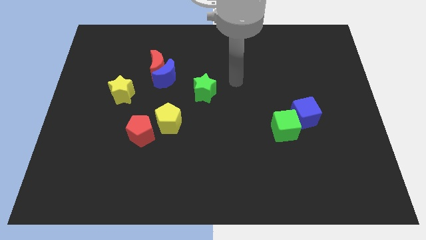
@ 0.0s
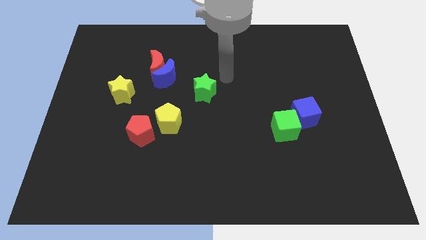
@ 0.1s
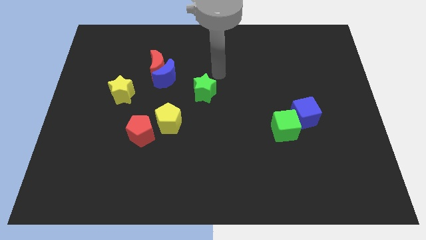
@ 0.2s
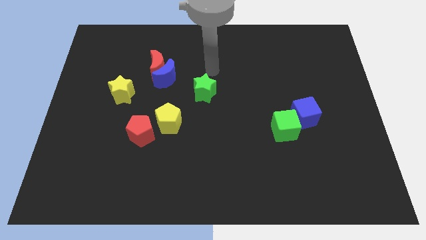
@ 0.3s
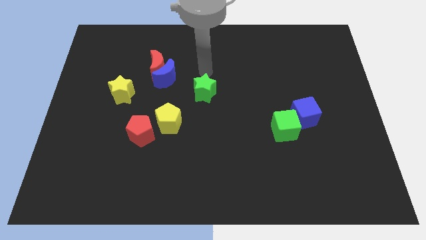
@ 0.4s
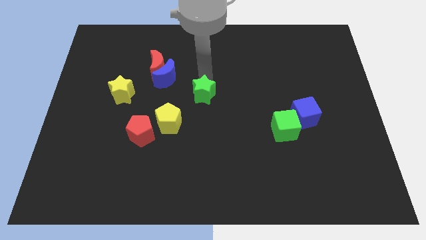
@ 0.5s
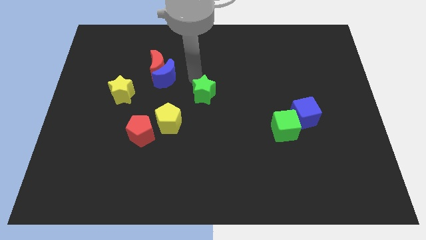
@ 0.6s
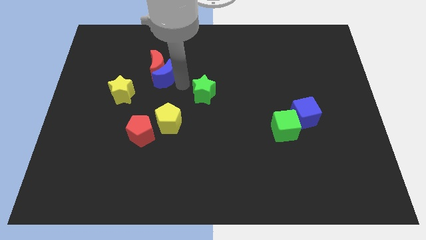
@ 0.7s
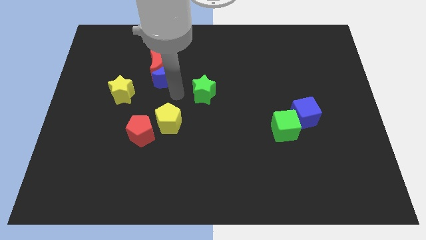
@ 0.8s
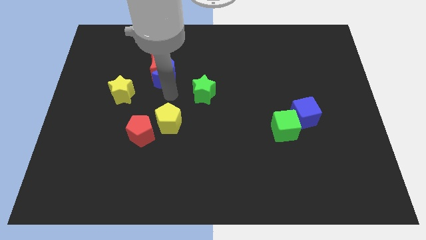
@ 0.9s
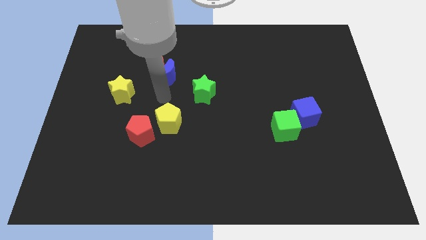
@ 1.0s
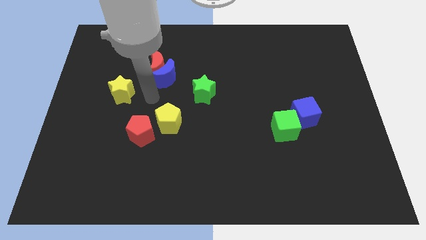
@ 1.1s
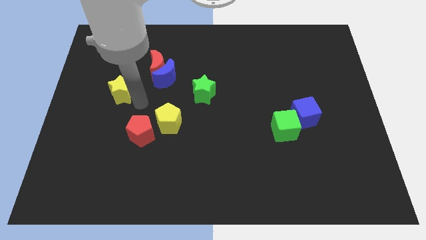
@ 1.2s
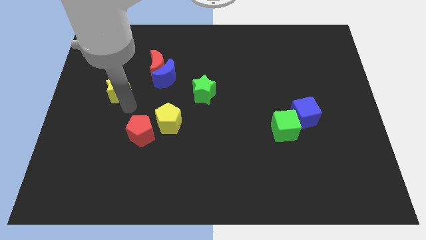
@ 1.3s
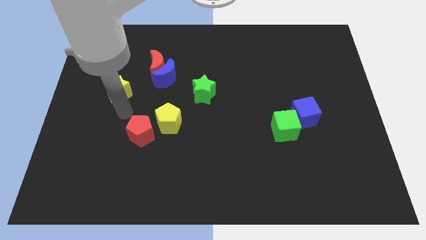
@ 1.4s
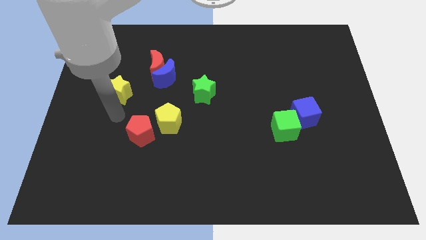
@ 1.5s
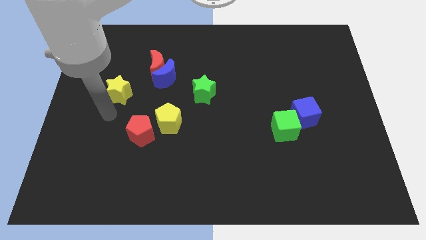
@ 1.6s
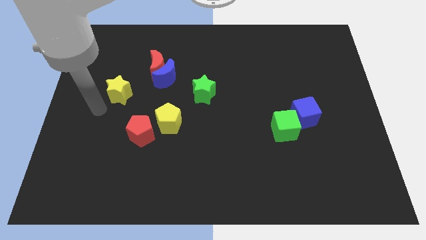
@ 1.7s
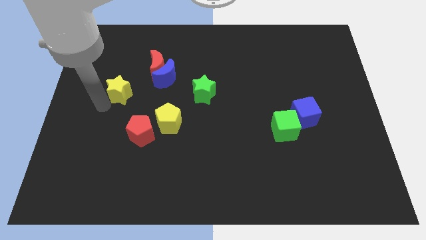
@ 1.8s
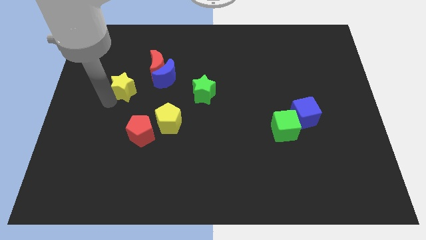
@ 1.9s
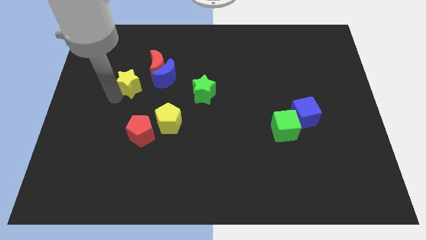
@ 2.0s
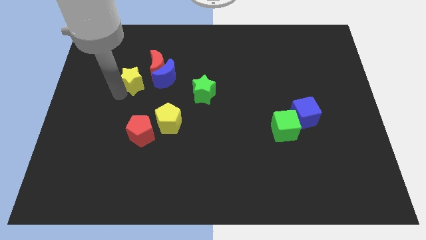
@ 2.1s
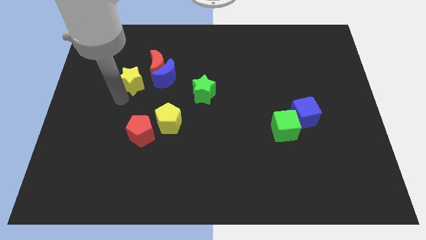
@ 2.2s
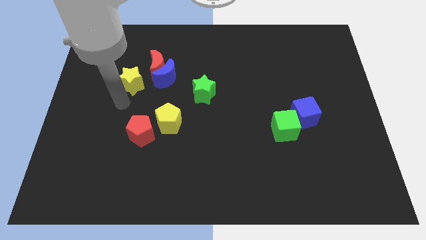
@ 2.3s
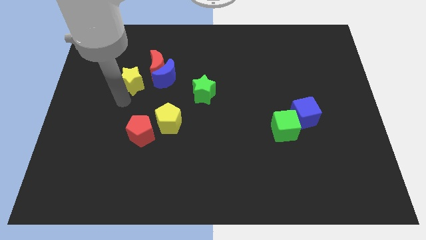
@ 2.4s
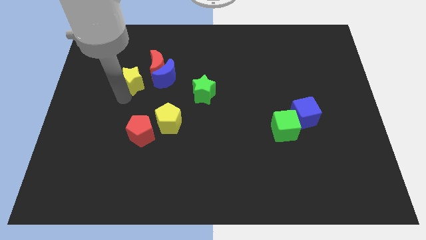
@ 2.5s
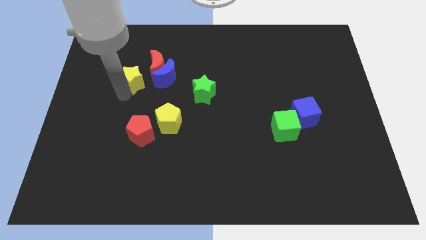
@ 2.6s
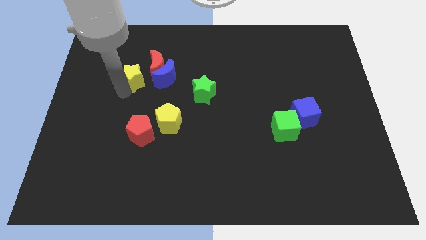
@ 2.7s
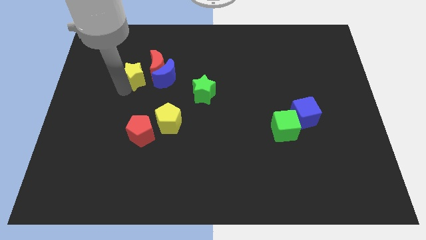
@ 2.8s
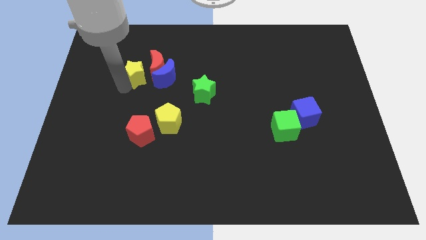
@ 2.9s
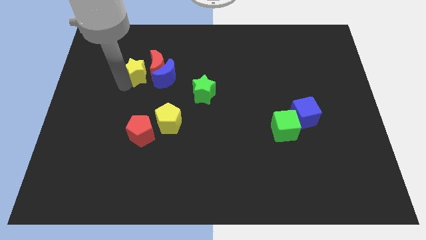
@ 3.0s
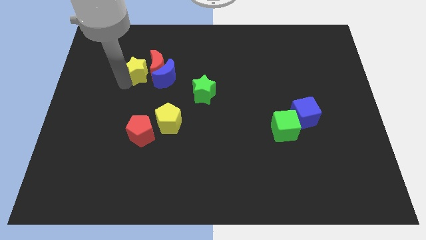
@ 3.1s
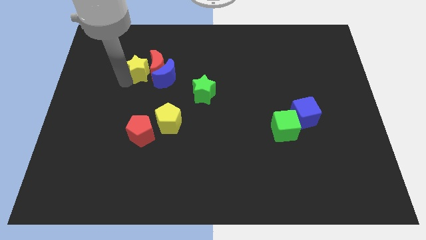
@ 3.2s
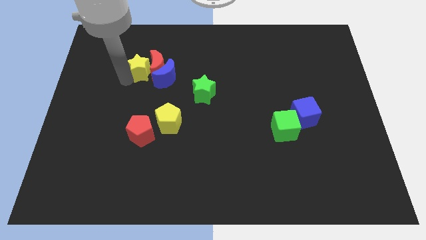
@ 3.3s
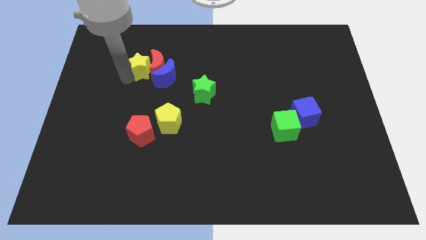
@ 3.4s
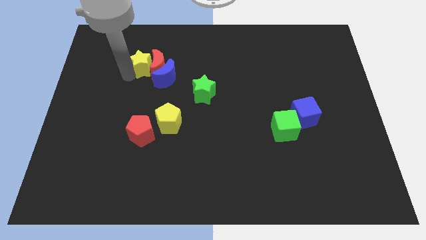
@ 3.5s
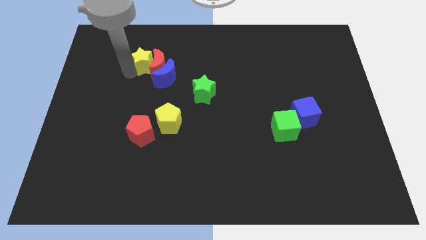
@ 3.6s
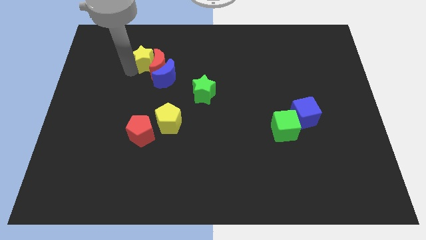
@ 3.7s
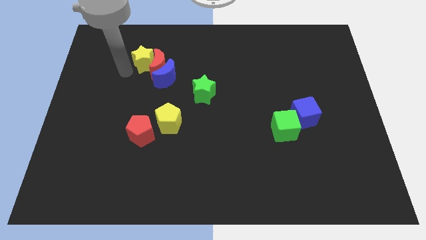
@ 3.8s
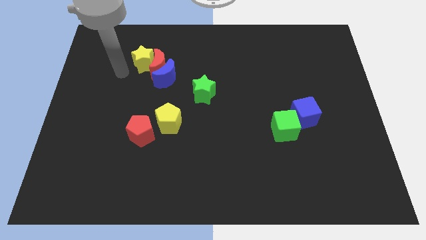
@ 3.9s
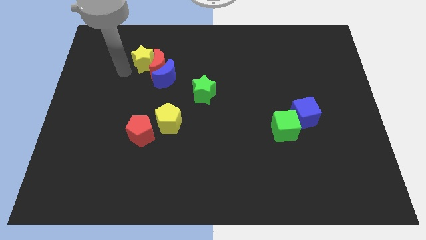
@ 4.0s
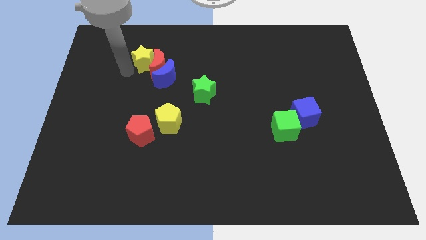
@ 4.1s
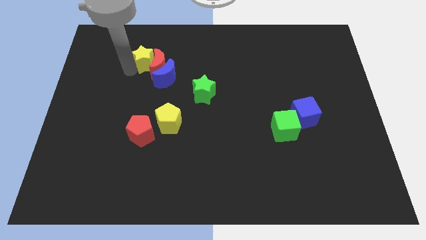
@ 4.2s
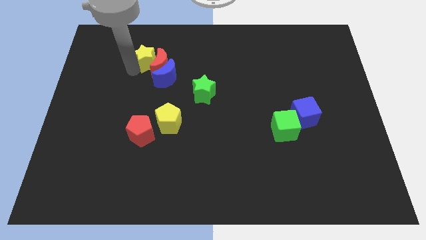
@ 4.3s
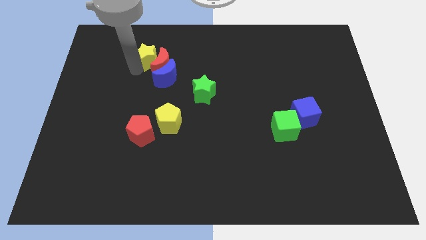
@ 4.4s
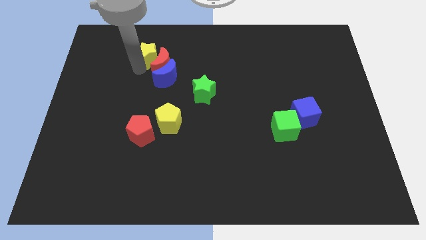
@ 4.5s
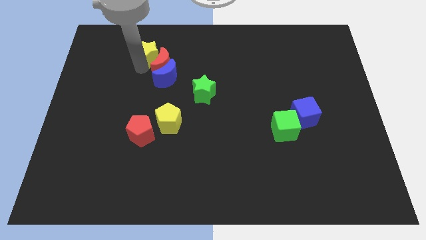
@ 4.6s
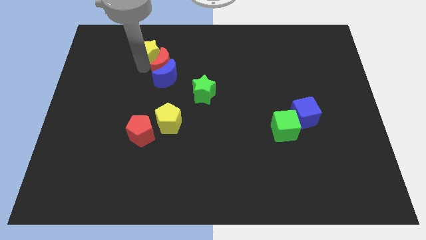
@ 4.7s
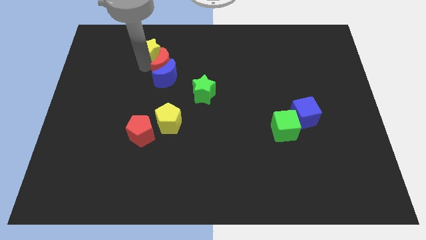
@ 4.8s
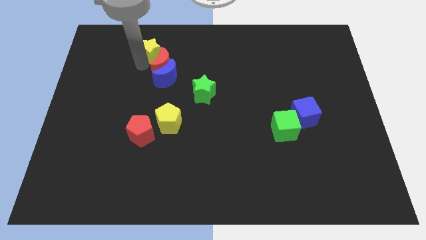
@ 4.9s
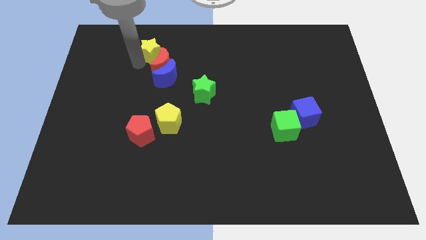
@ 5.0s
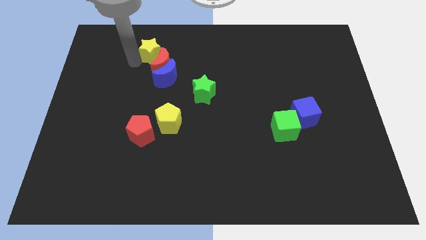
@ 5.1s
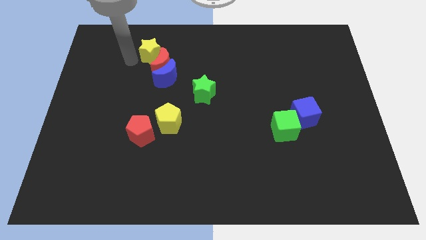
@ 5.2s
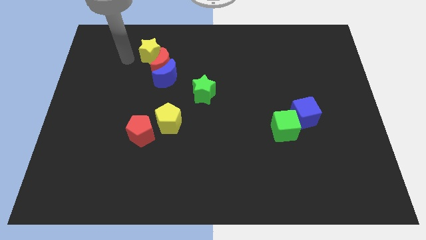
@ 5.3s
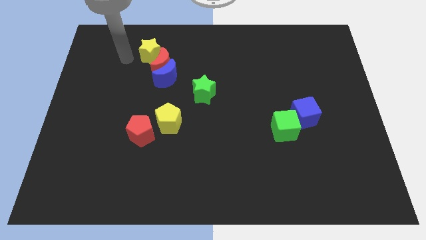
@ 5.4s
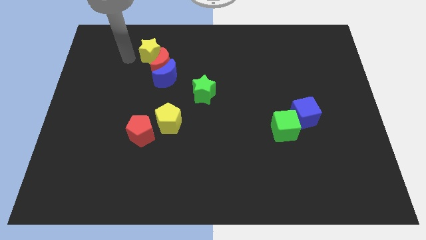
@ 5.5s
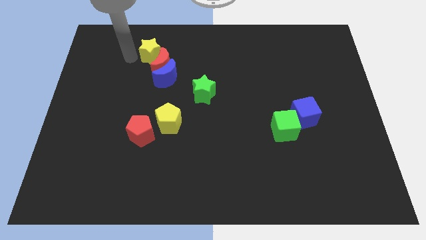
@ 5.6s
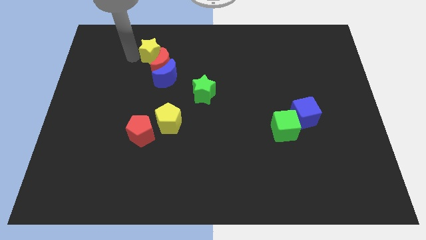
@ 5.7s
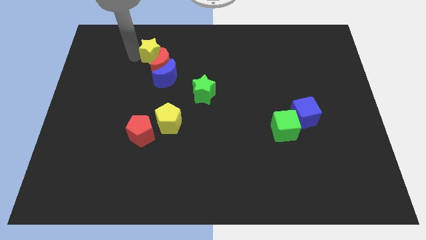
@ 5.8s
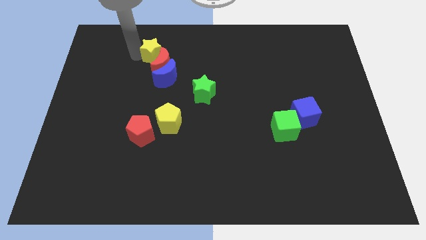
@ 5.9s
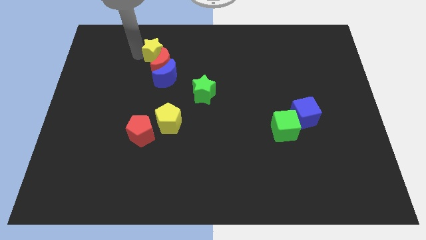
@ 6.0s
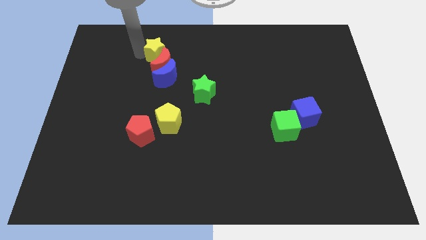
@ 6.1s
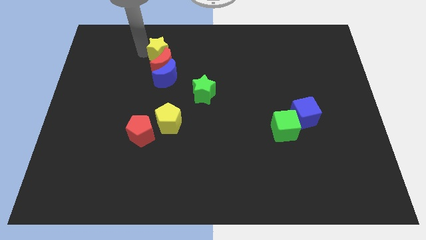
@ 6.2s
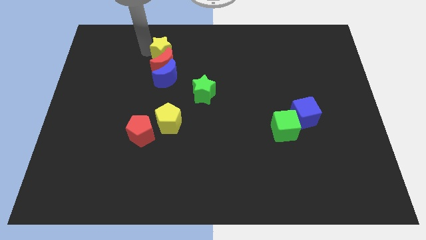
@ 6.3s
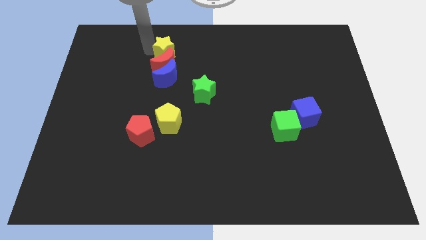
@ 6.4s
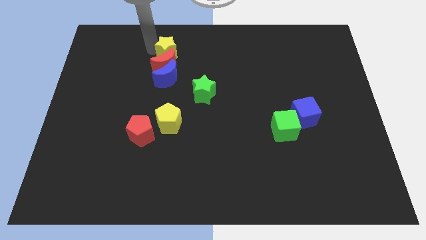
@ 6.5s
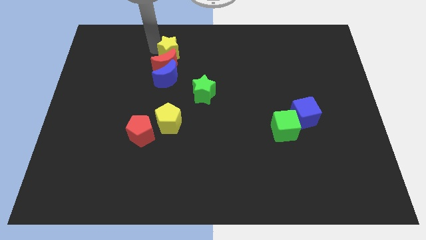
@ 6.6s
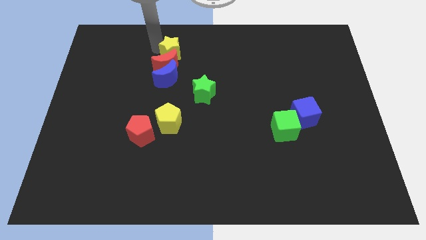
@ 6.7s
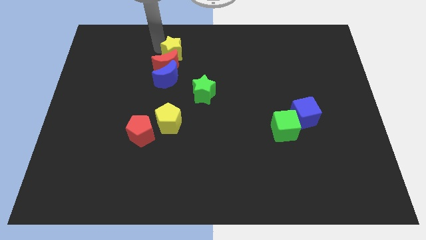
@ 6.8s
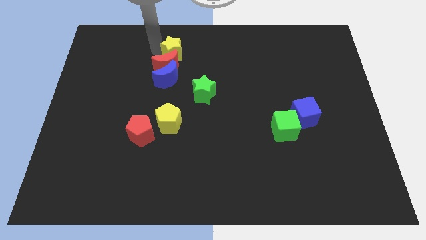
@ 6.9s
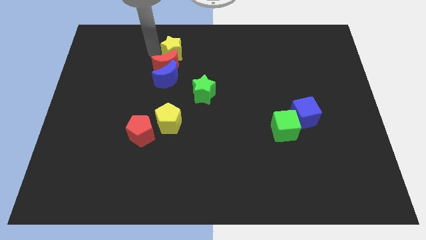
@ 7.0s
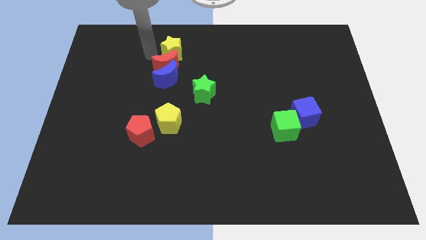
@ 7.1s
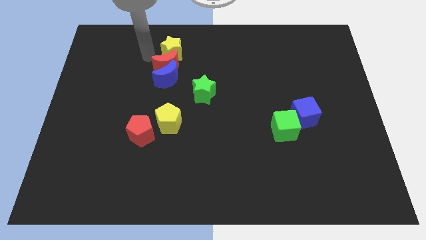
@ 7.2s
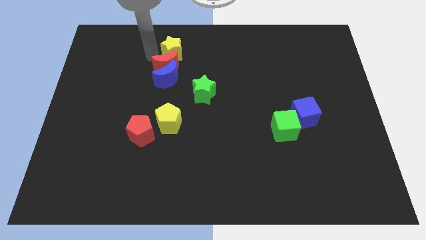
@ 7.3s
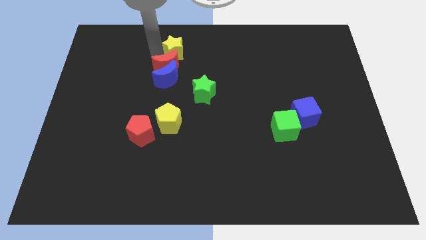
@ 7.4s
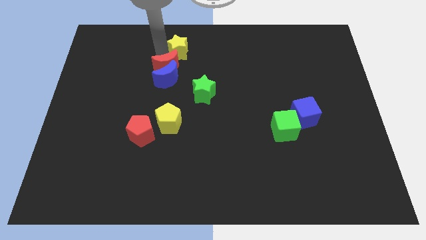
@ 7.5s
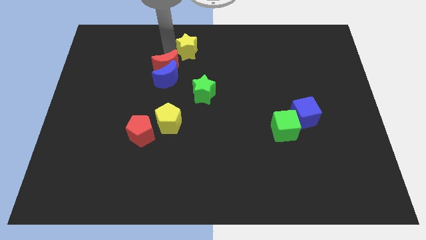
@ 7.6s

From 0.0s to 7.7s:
push the yellow star to the top
